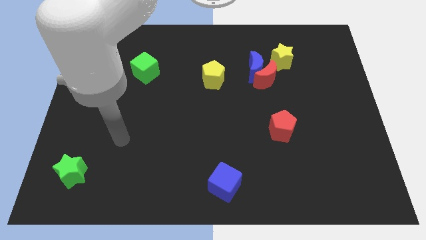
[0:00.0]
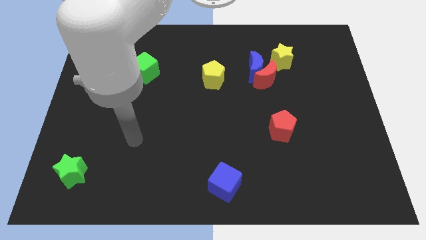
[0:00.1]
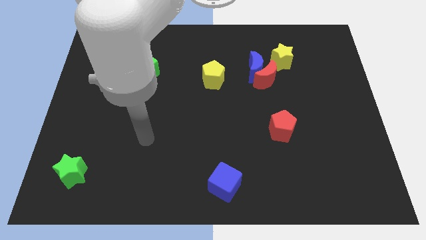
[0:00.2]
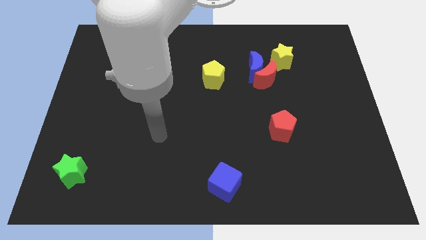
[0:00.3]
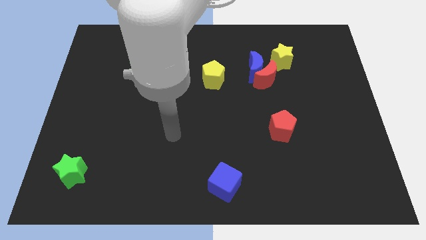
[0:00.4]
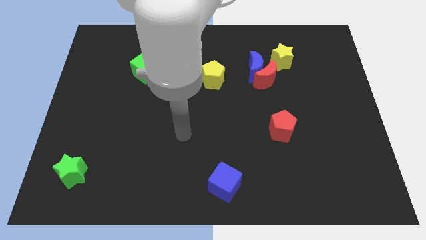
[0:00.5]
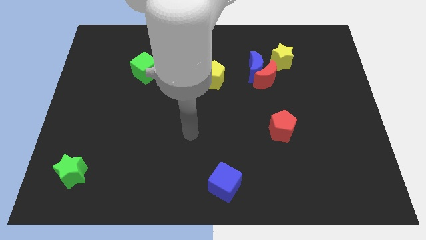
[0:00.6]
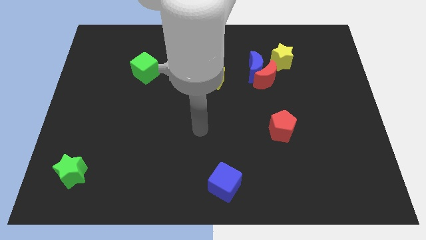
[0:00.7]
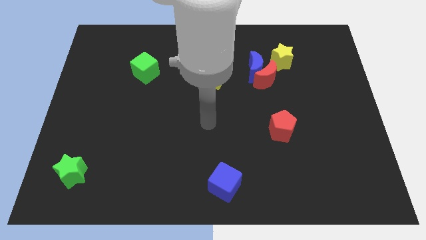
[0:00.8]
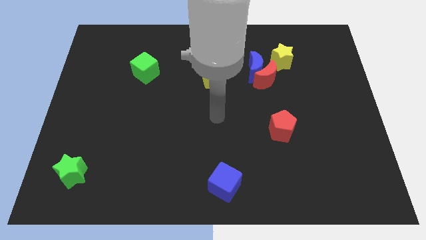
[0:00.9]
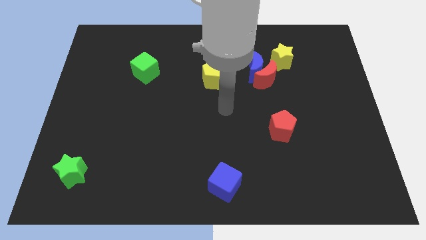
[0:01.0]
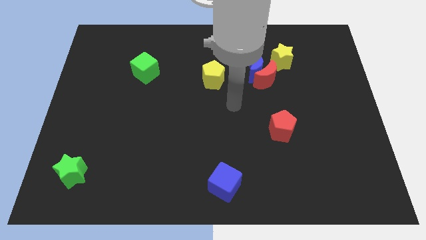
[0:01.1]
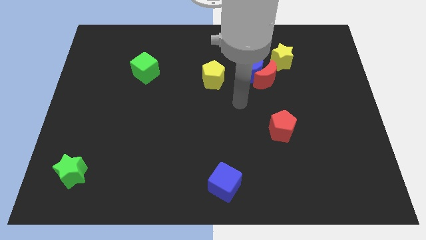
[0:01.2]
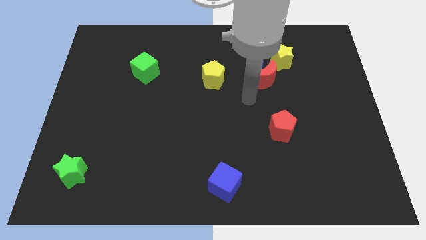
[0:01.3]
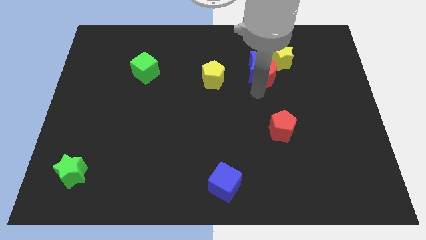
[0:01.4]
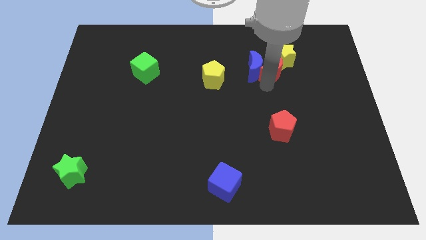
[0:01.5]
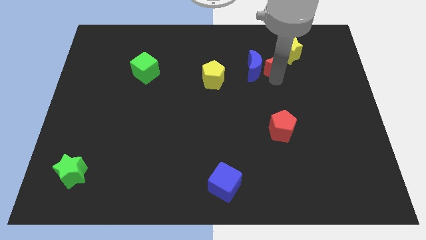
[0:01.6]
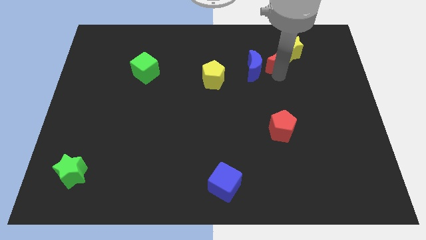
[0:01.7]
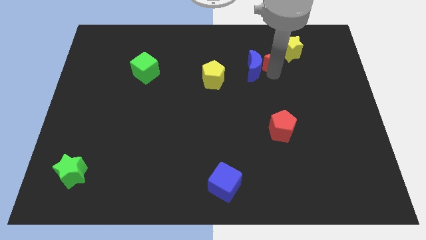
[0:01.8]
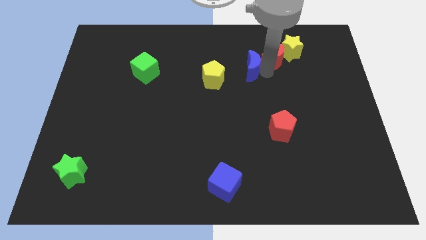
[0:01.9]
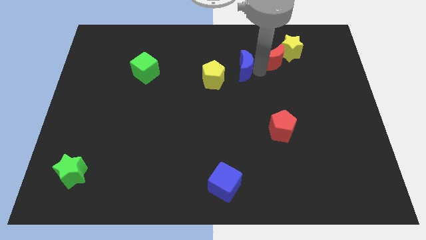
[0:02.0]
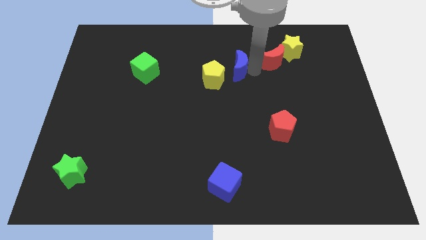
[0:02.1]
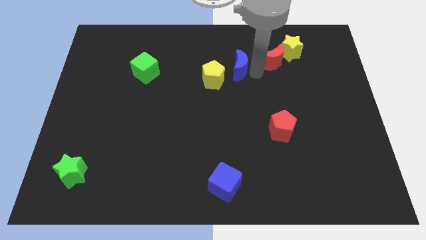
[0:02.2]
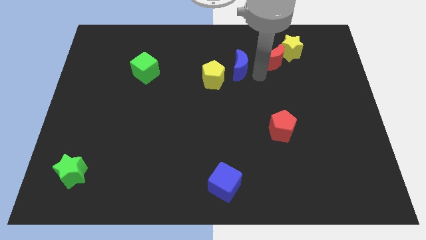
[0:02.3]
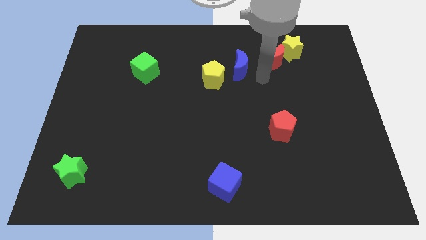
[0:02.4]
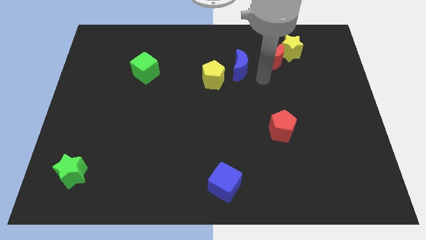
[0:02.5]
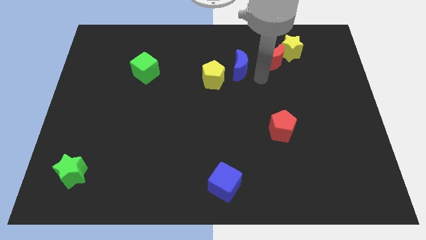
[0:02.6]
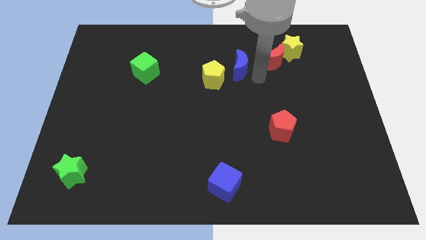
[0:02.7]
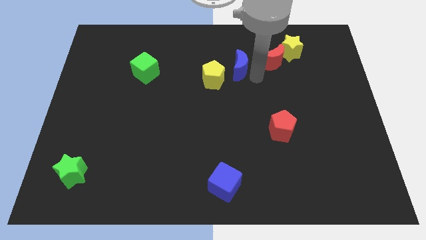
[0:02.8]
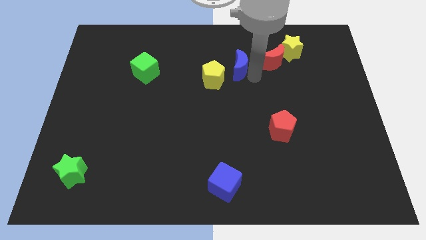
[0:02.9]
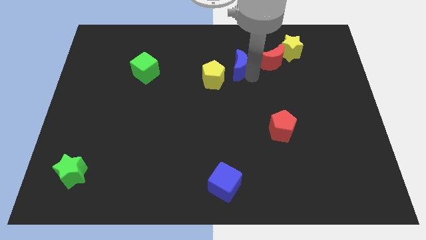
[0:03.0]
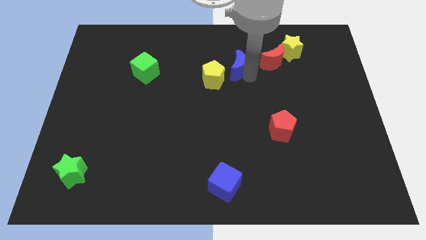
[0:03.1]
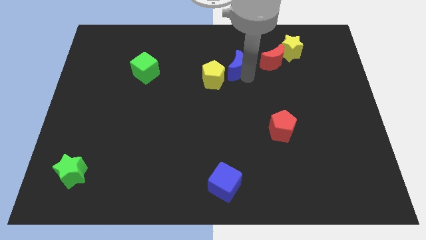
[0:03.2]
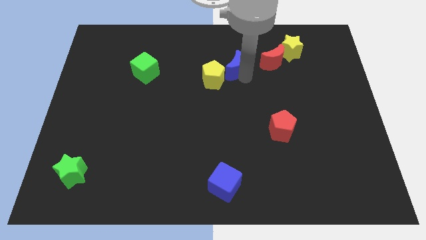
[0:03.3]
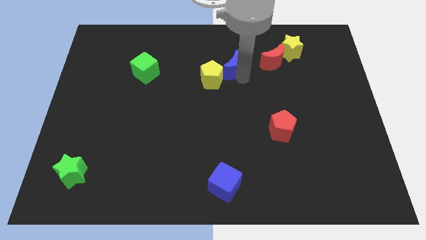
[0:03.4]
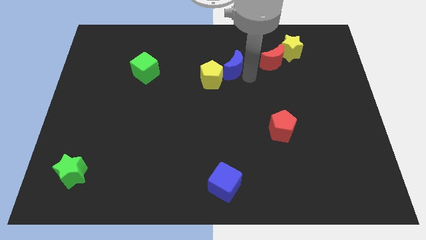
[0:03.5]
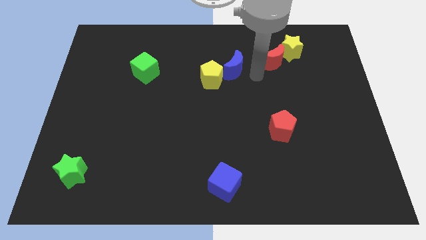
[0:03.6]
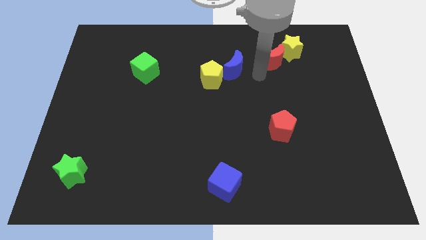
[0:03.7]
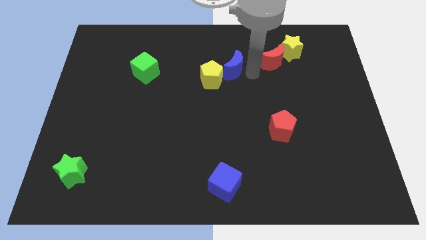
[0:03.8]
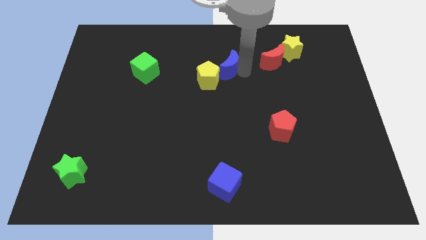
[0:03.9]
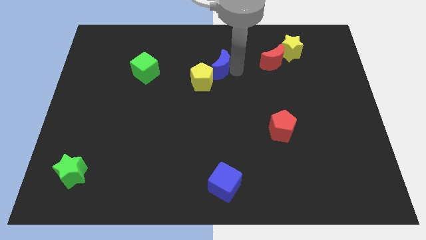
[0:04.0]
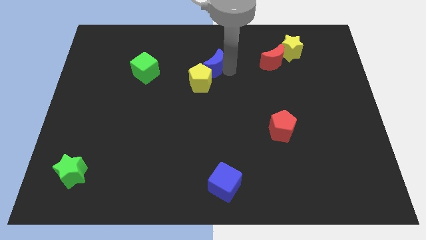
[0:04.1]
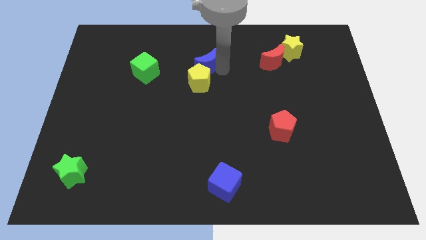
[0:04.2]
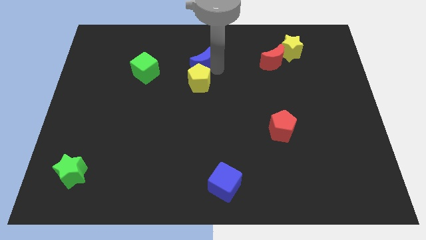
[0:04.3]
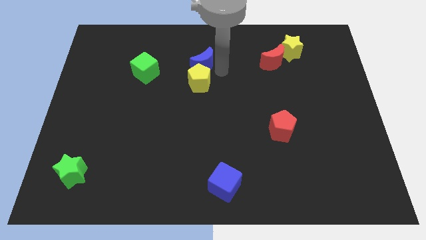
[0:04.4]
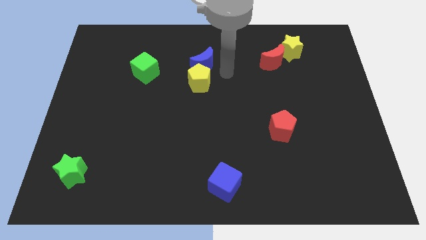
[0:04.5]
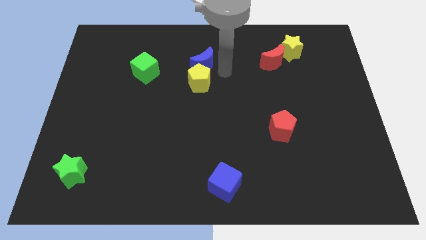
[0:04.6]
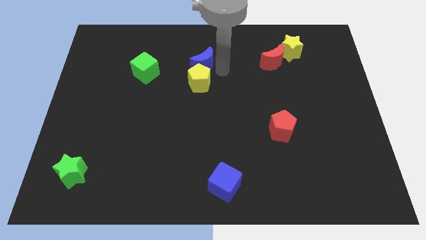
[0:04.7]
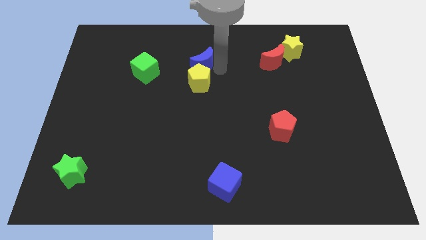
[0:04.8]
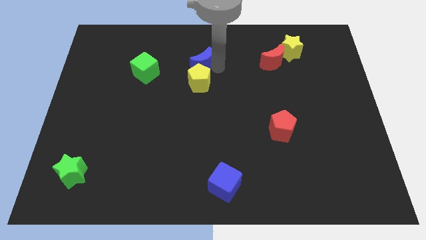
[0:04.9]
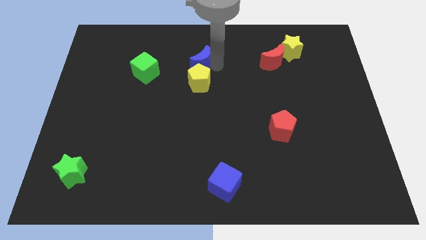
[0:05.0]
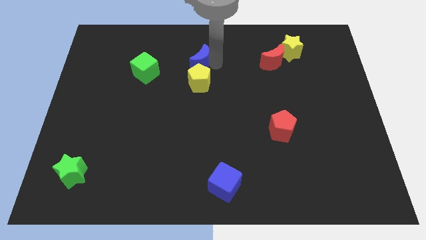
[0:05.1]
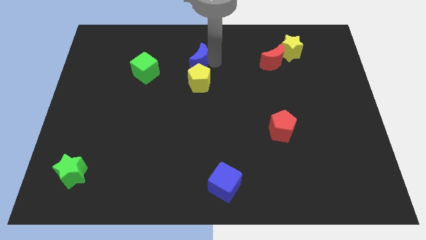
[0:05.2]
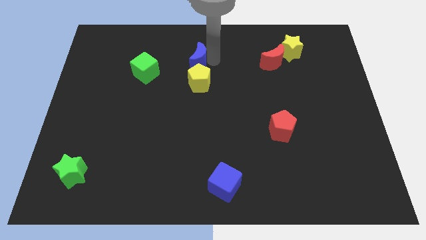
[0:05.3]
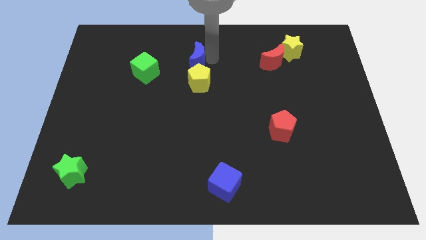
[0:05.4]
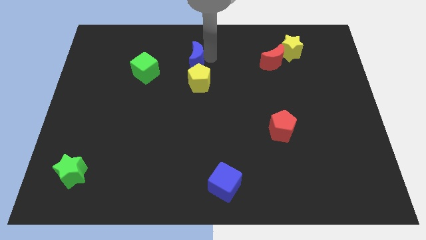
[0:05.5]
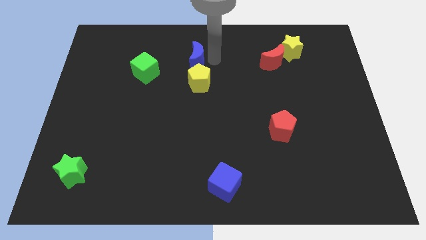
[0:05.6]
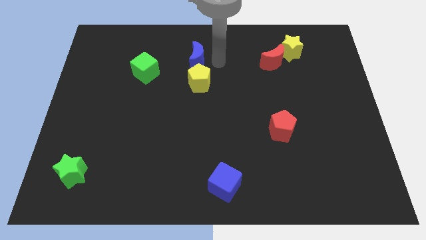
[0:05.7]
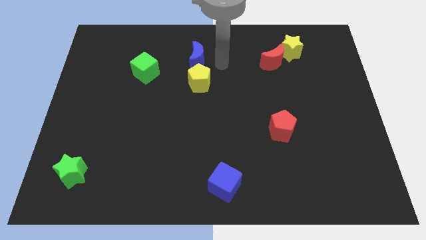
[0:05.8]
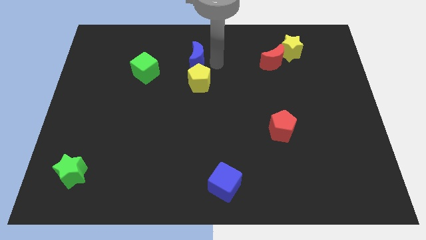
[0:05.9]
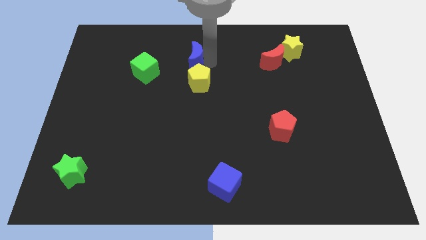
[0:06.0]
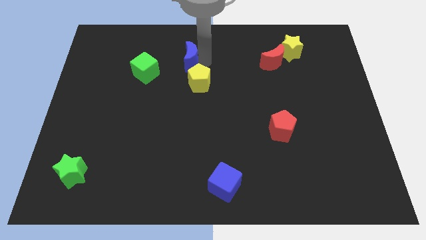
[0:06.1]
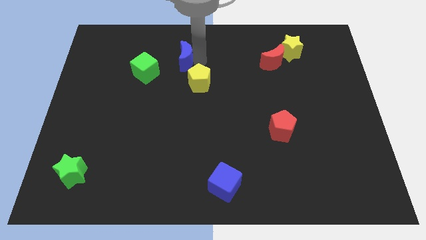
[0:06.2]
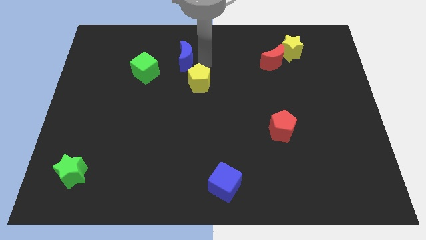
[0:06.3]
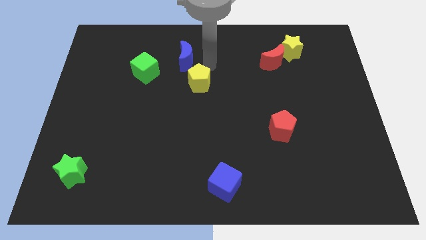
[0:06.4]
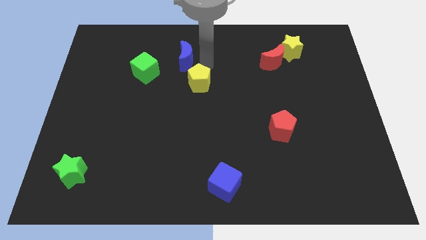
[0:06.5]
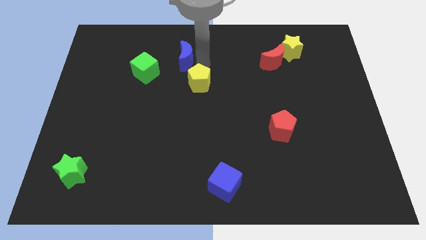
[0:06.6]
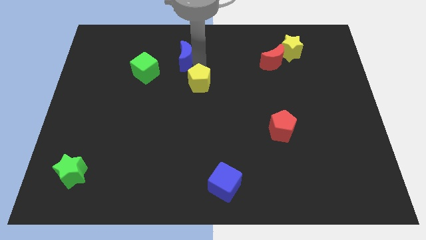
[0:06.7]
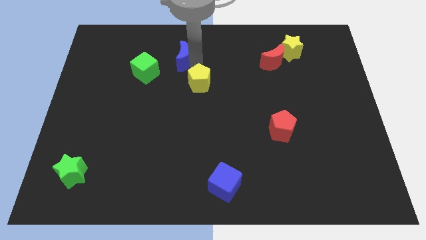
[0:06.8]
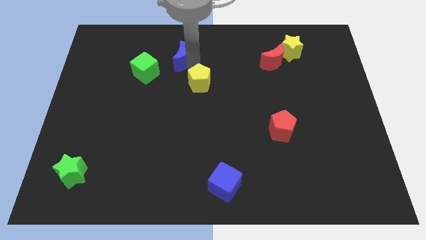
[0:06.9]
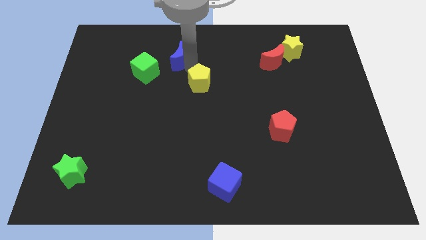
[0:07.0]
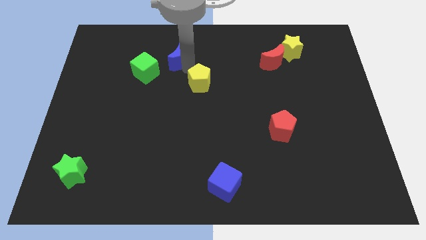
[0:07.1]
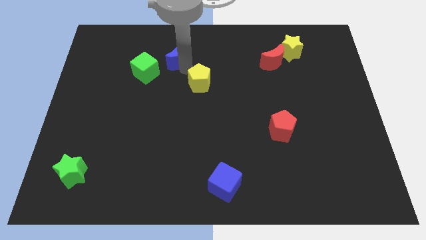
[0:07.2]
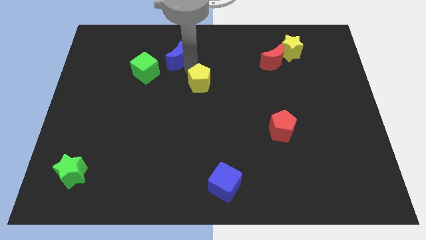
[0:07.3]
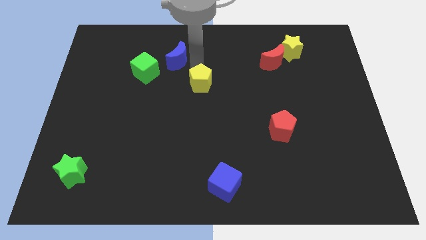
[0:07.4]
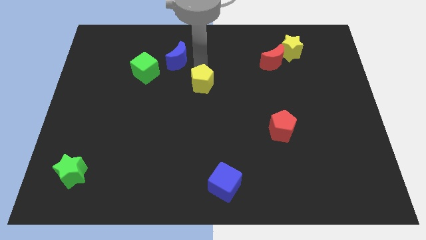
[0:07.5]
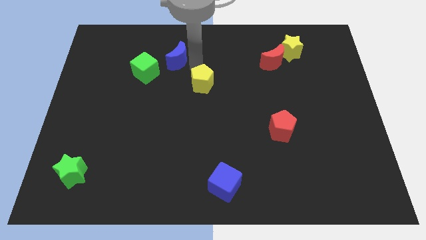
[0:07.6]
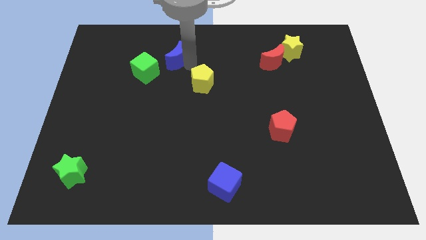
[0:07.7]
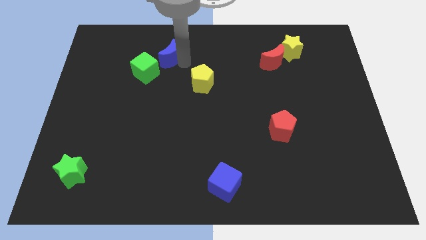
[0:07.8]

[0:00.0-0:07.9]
move the blue moon to the left

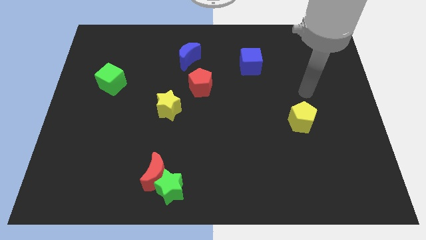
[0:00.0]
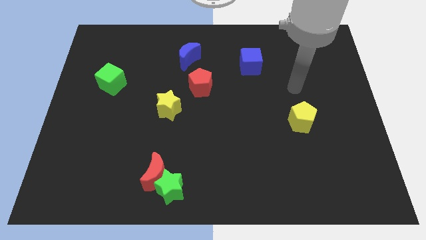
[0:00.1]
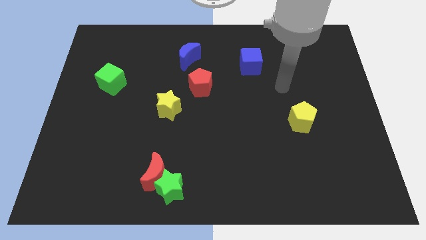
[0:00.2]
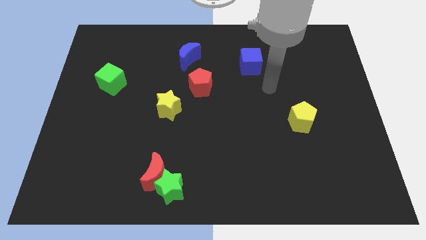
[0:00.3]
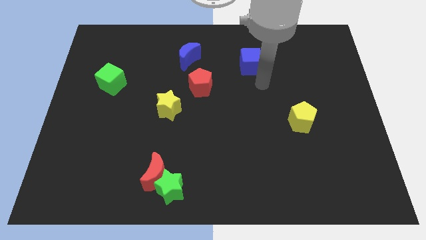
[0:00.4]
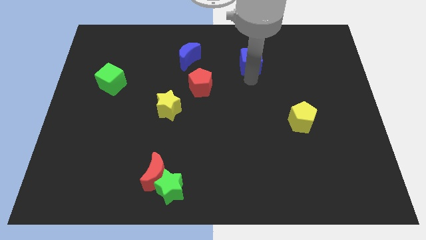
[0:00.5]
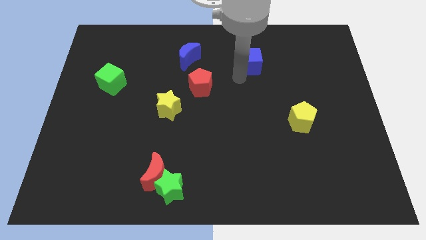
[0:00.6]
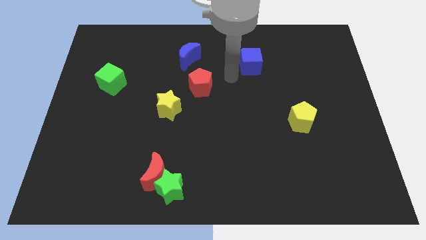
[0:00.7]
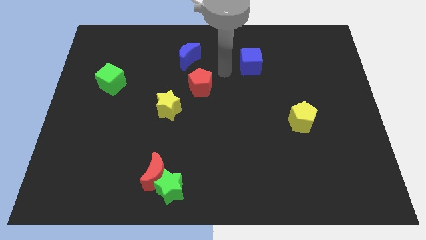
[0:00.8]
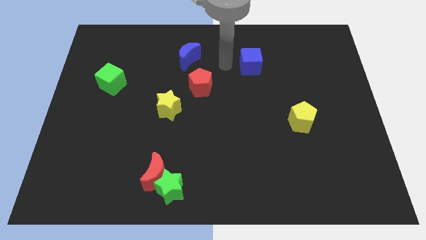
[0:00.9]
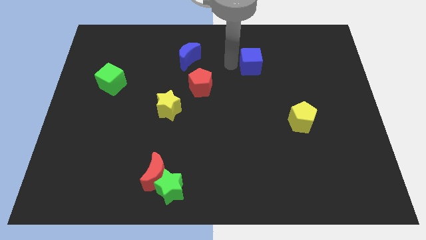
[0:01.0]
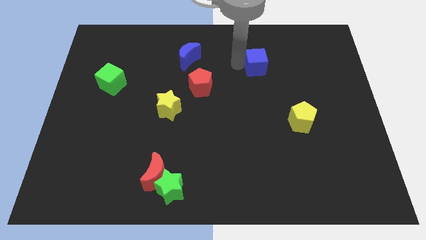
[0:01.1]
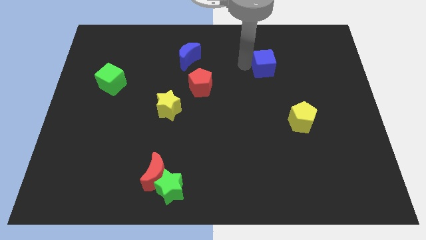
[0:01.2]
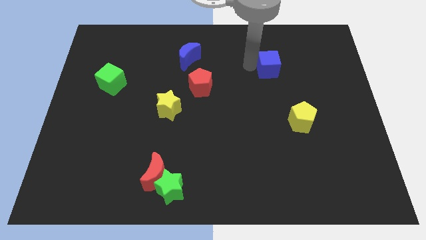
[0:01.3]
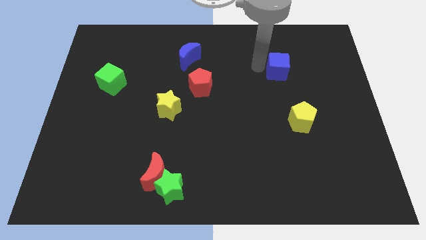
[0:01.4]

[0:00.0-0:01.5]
slightly push the blue cube right
